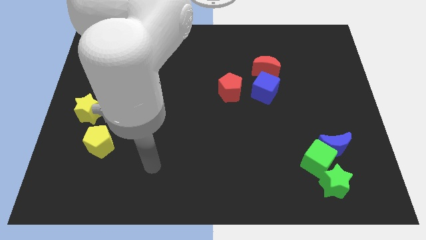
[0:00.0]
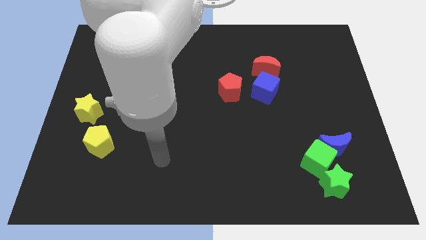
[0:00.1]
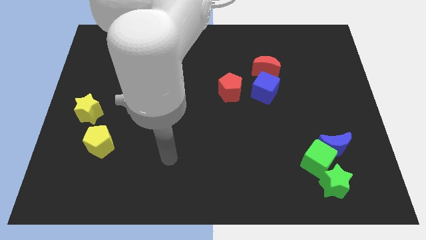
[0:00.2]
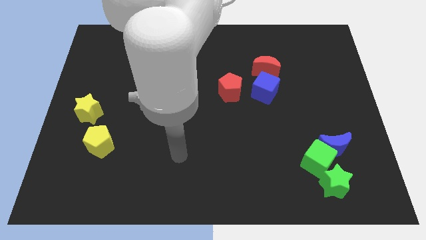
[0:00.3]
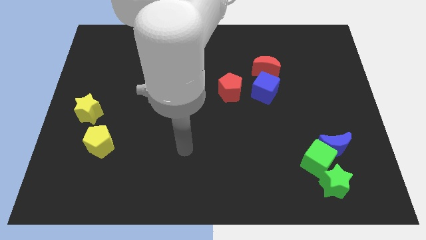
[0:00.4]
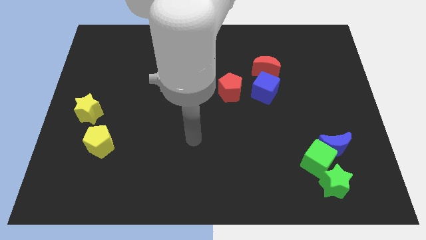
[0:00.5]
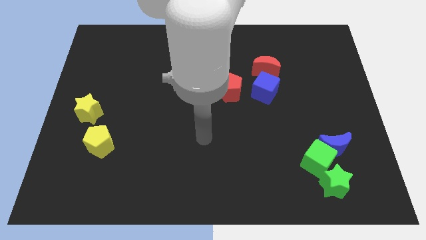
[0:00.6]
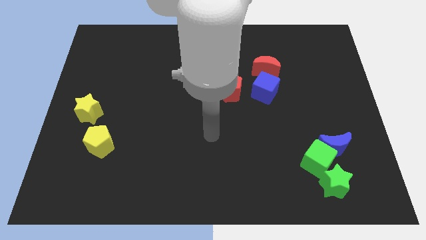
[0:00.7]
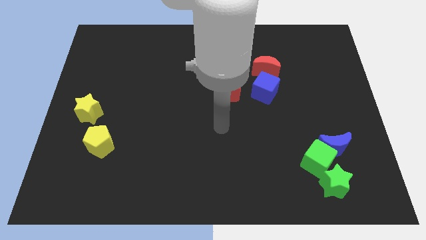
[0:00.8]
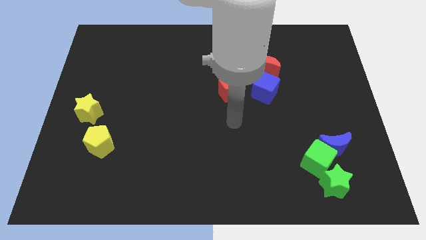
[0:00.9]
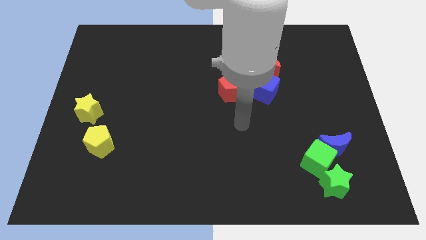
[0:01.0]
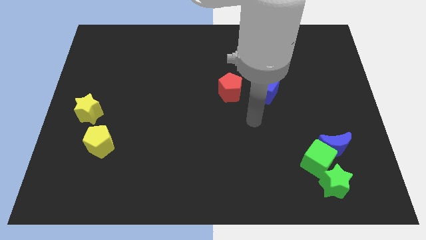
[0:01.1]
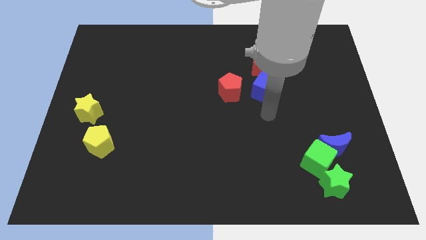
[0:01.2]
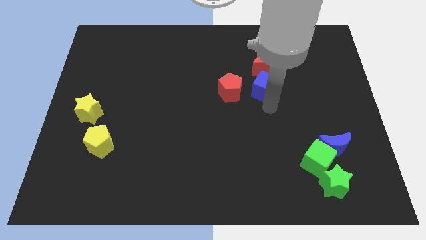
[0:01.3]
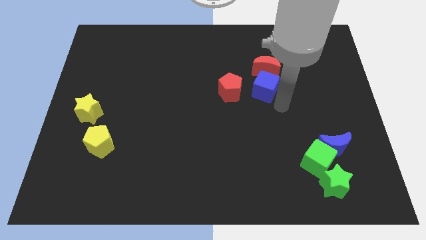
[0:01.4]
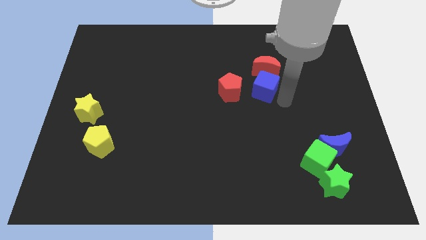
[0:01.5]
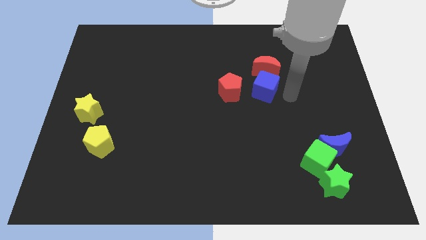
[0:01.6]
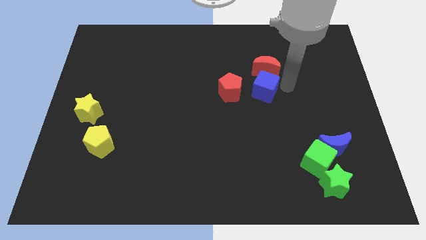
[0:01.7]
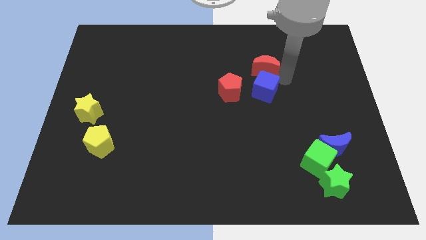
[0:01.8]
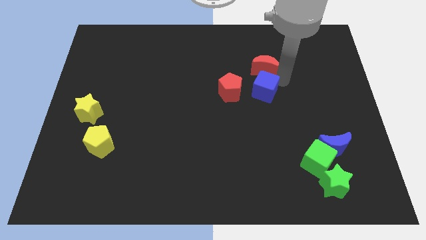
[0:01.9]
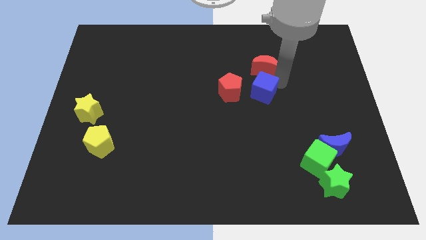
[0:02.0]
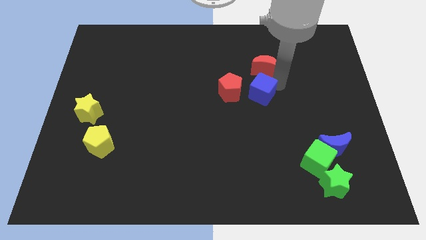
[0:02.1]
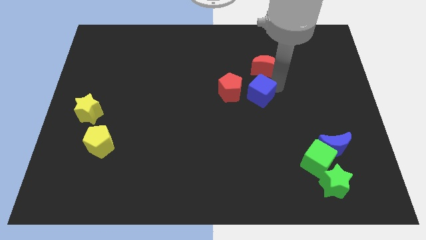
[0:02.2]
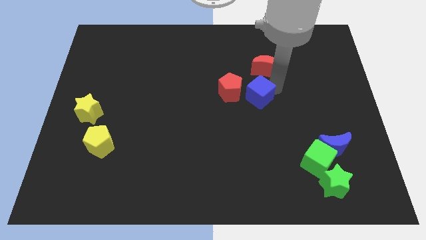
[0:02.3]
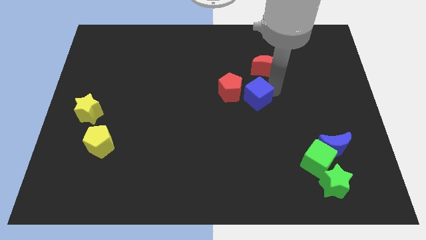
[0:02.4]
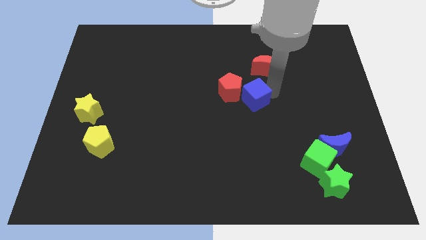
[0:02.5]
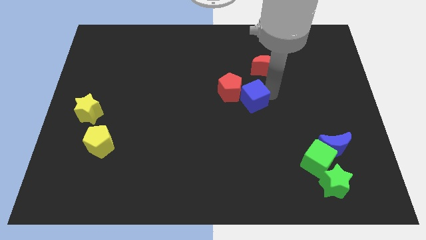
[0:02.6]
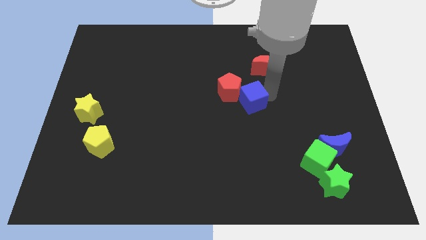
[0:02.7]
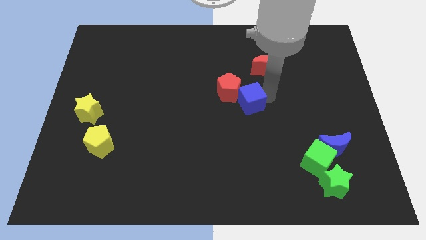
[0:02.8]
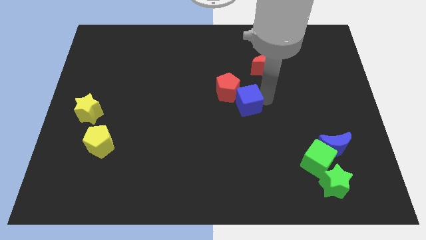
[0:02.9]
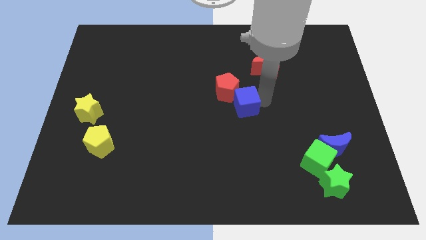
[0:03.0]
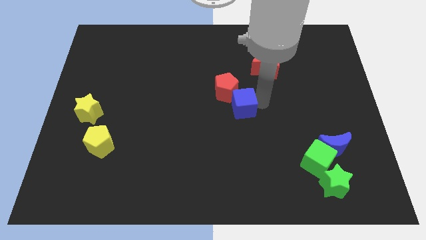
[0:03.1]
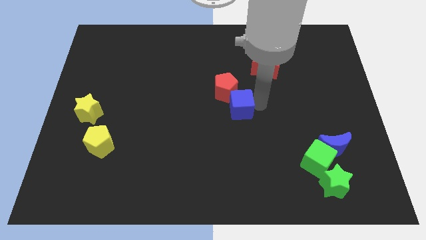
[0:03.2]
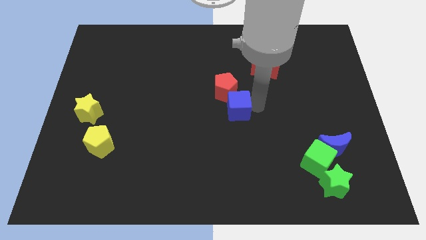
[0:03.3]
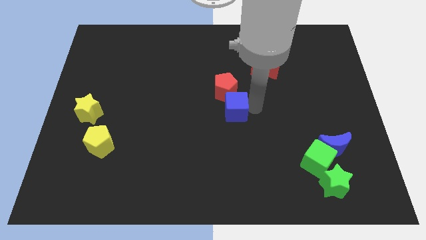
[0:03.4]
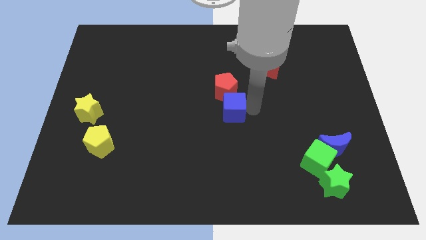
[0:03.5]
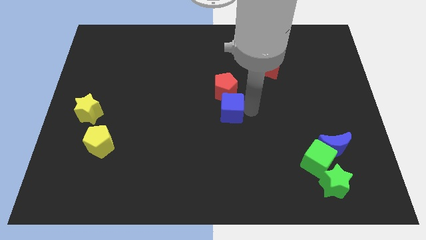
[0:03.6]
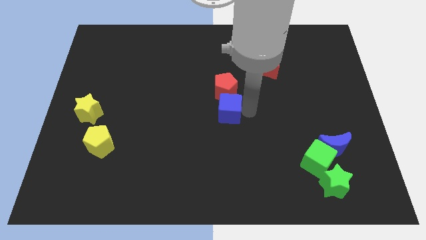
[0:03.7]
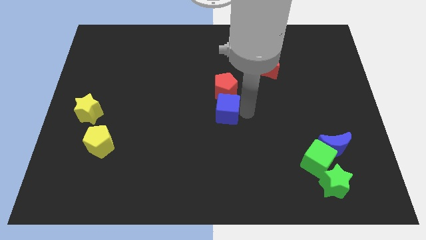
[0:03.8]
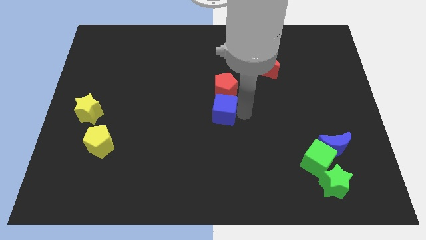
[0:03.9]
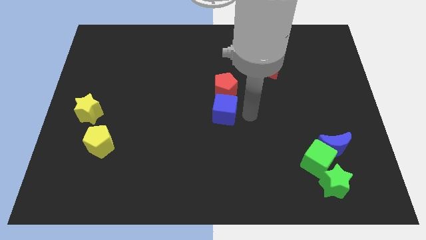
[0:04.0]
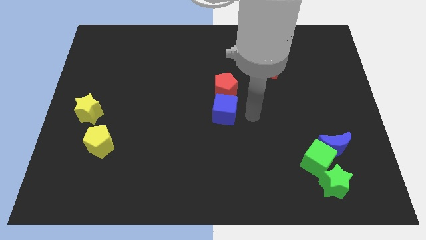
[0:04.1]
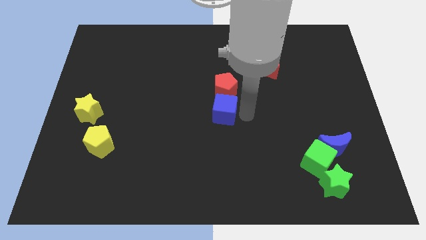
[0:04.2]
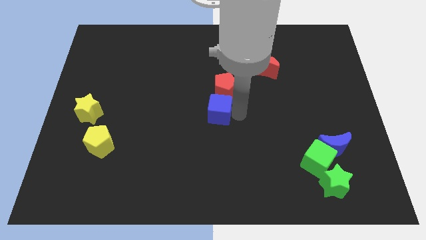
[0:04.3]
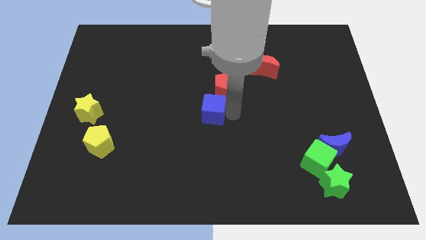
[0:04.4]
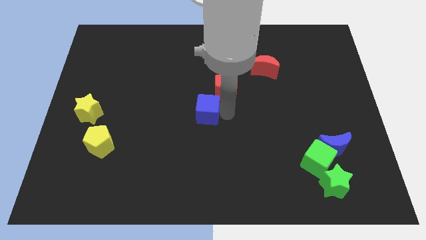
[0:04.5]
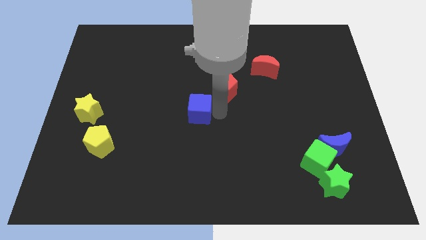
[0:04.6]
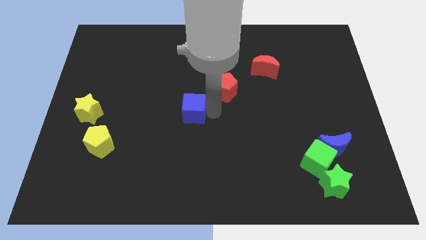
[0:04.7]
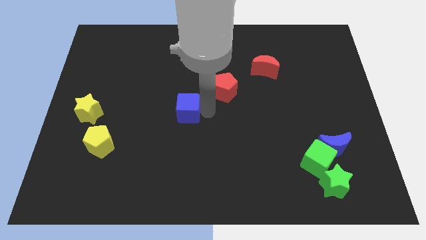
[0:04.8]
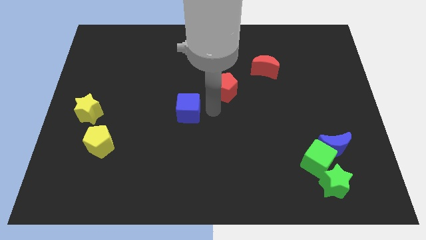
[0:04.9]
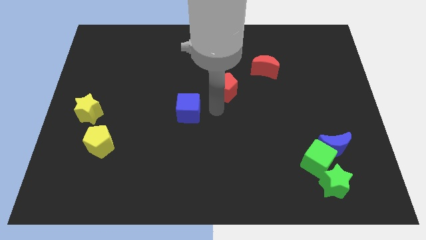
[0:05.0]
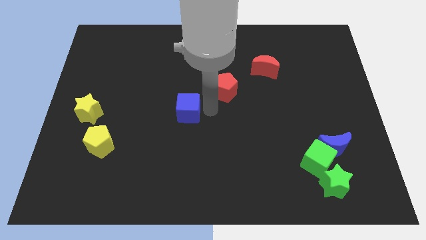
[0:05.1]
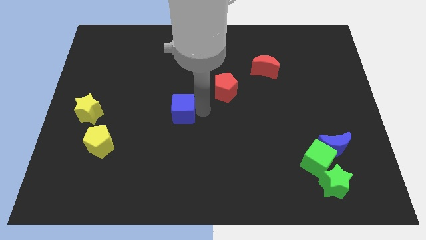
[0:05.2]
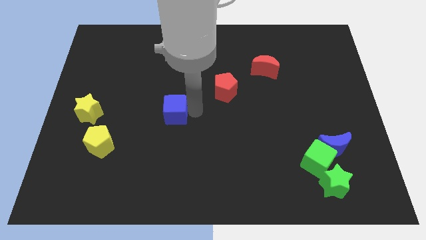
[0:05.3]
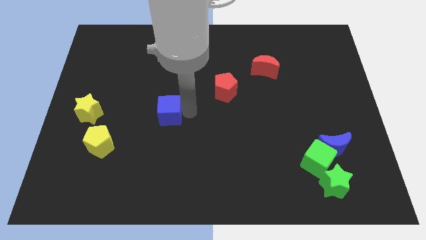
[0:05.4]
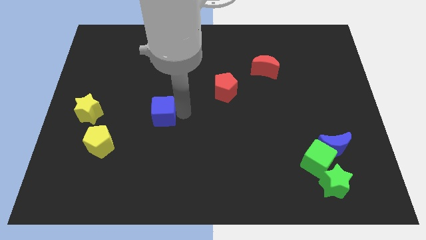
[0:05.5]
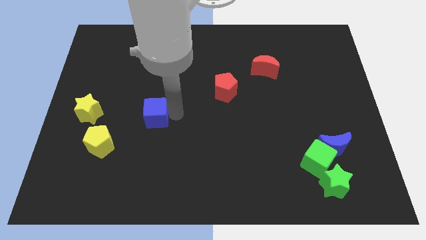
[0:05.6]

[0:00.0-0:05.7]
move the blue cube to the right of the yellow star

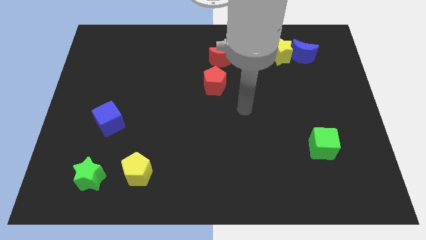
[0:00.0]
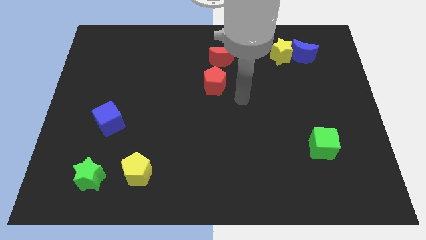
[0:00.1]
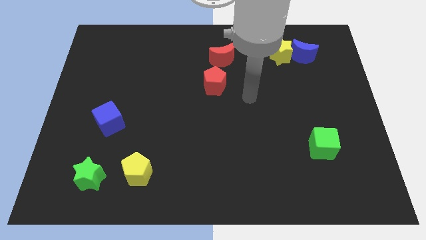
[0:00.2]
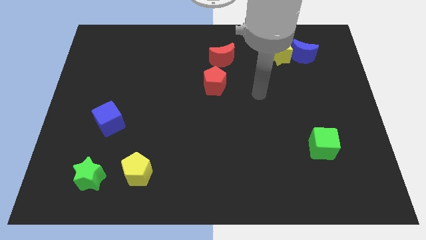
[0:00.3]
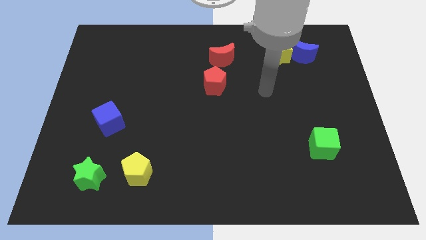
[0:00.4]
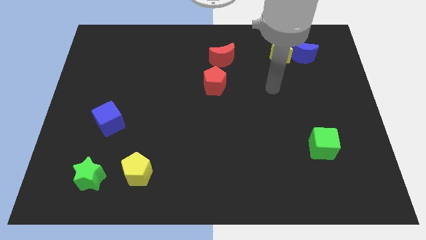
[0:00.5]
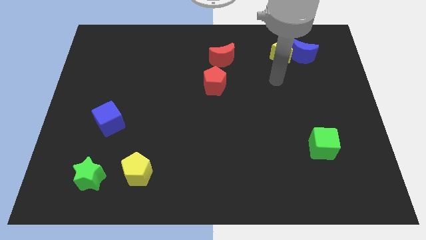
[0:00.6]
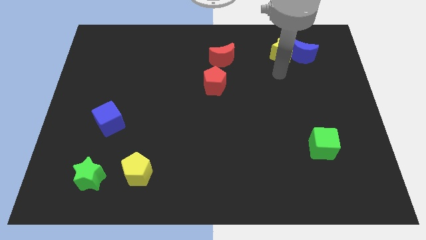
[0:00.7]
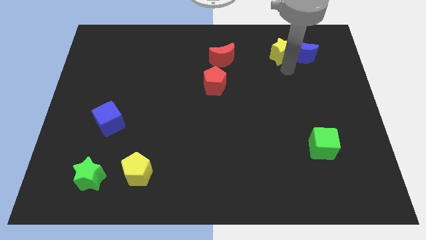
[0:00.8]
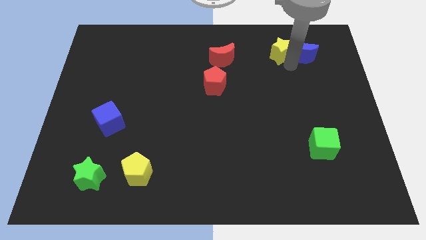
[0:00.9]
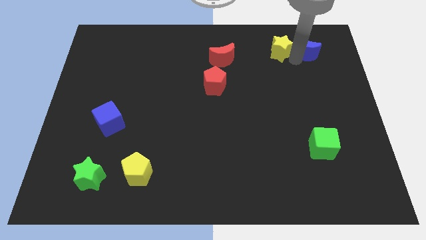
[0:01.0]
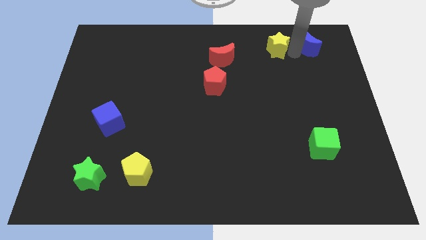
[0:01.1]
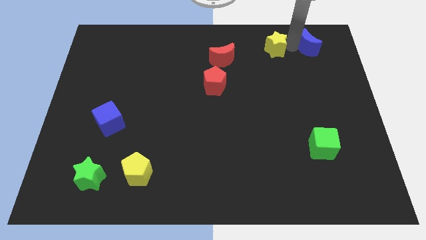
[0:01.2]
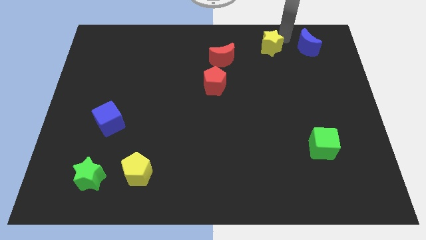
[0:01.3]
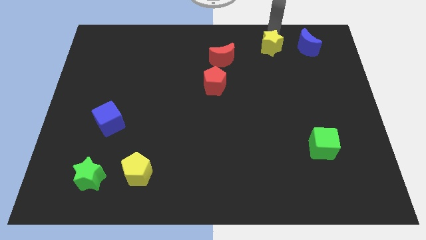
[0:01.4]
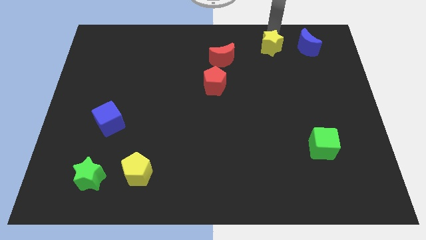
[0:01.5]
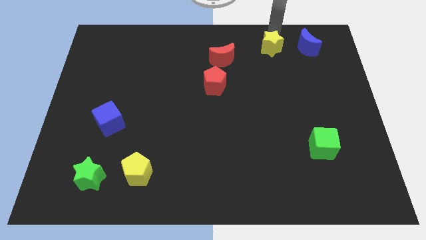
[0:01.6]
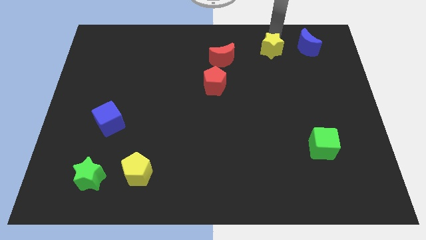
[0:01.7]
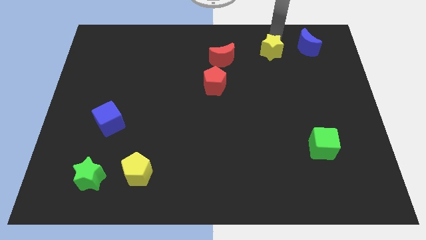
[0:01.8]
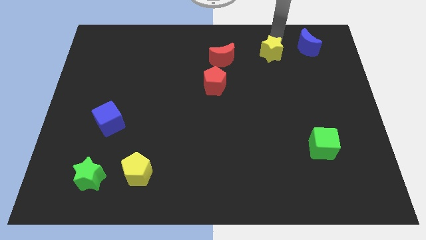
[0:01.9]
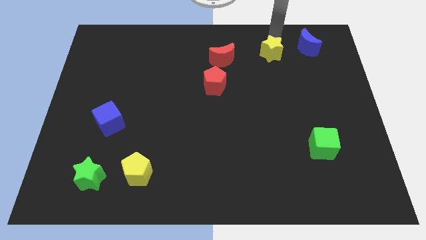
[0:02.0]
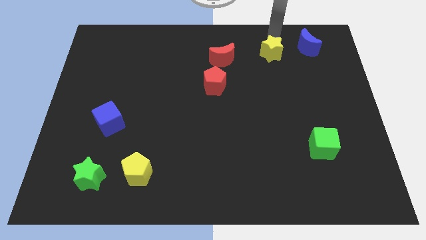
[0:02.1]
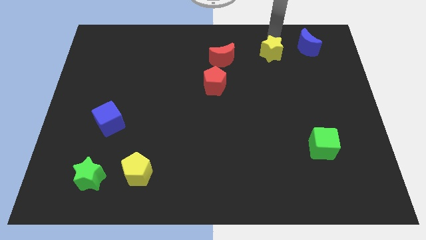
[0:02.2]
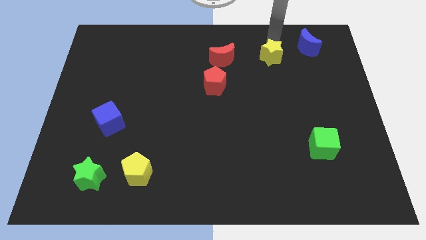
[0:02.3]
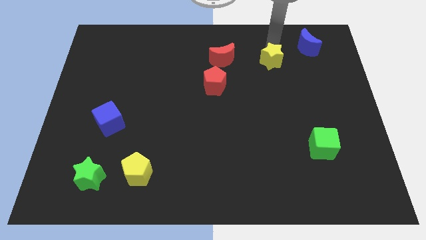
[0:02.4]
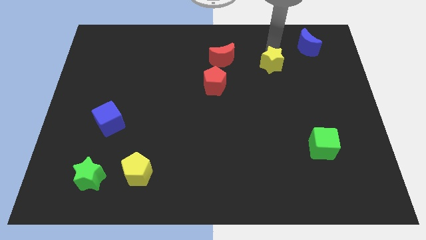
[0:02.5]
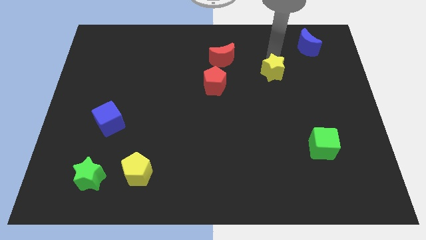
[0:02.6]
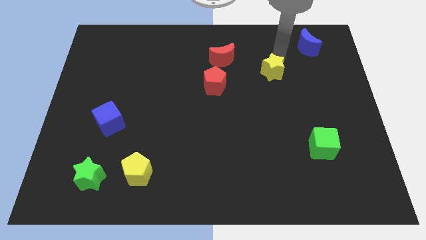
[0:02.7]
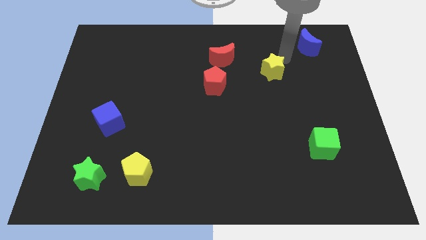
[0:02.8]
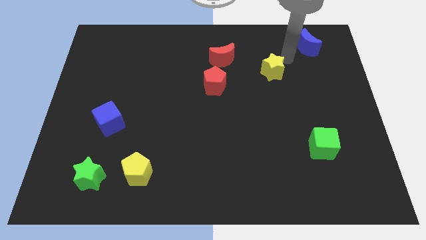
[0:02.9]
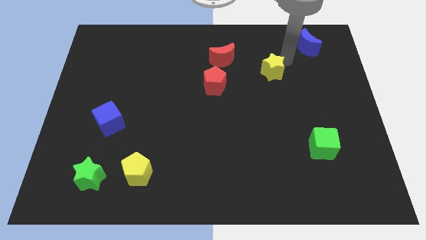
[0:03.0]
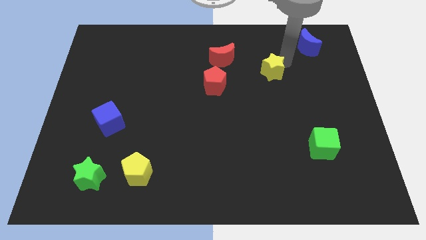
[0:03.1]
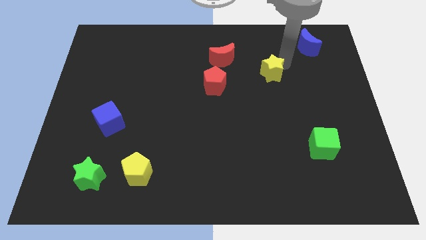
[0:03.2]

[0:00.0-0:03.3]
put the yellow star to the right side of the red pentagon
